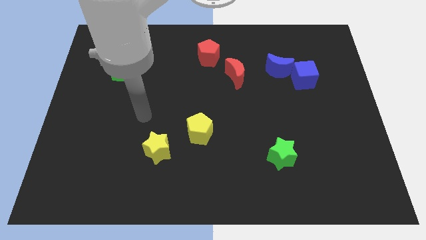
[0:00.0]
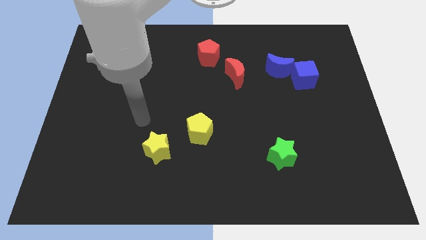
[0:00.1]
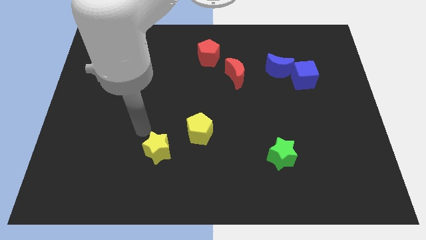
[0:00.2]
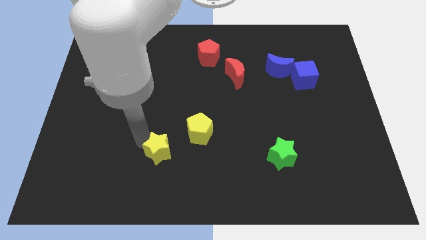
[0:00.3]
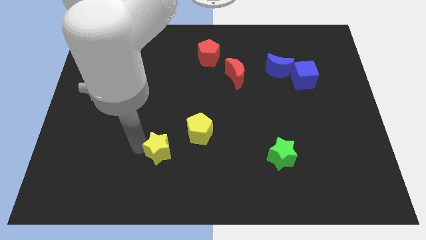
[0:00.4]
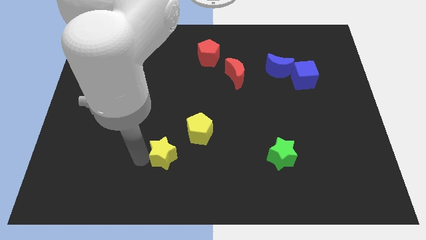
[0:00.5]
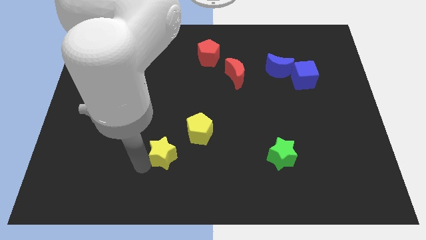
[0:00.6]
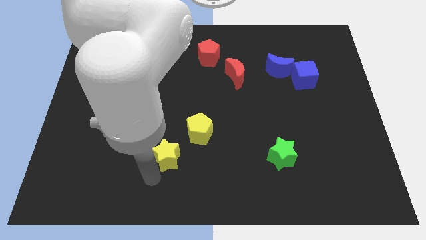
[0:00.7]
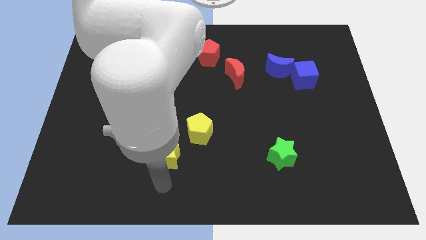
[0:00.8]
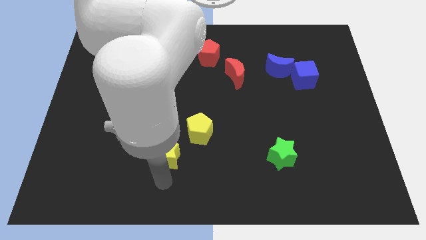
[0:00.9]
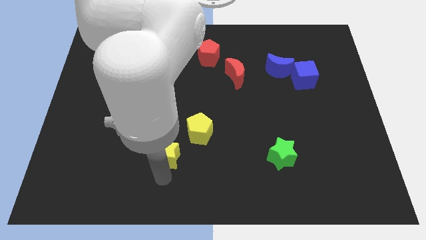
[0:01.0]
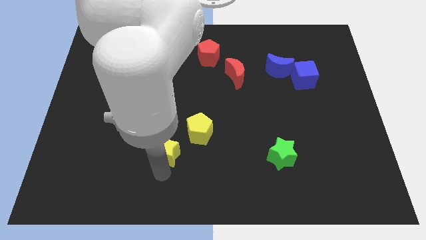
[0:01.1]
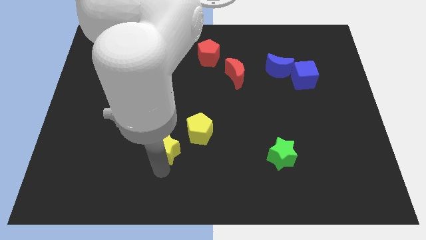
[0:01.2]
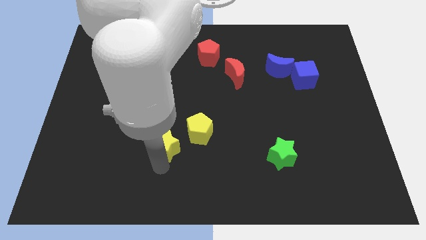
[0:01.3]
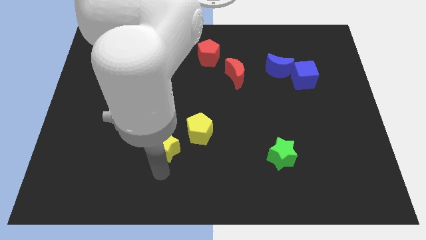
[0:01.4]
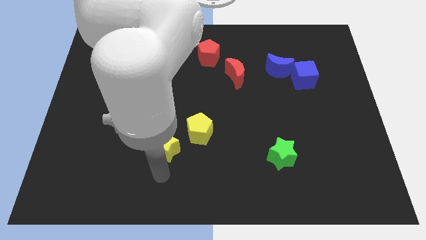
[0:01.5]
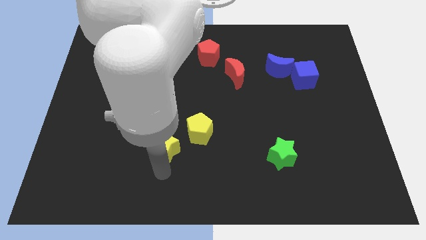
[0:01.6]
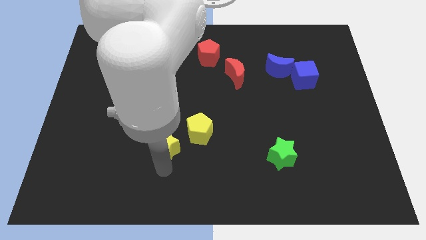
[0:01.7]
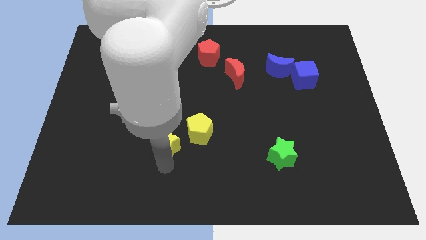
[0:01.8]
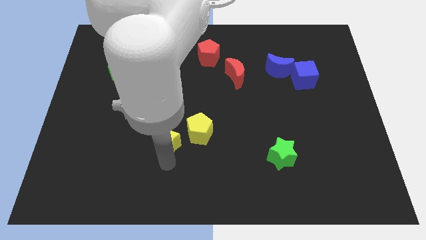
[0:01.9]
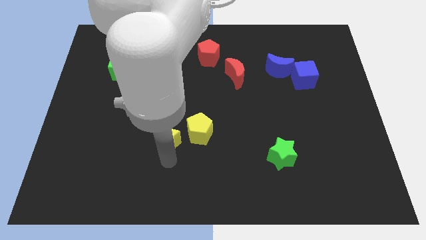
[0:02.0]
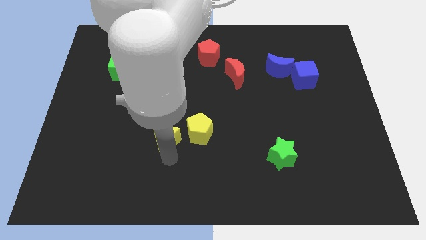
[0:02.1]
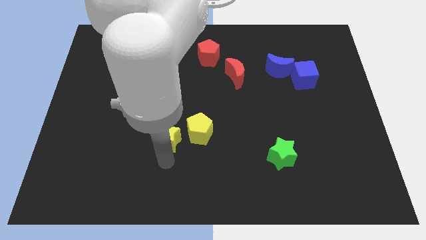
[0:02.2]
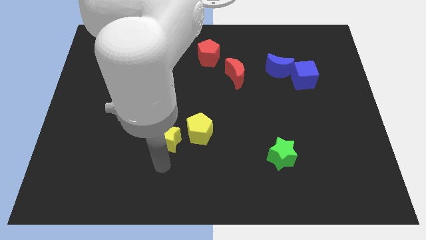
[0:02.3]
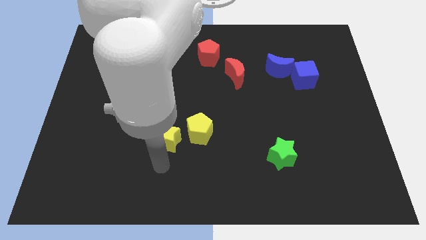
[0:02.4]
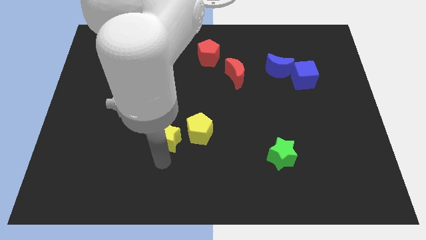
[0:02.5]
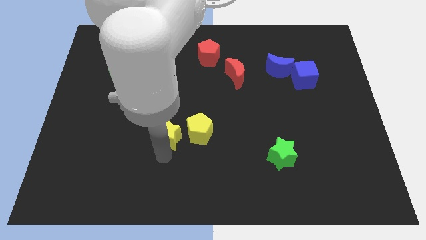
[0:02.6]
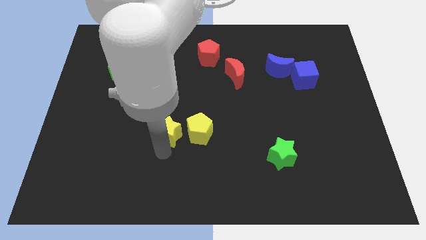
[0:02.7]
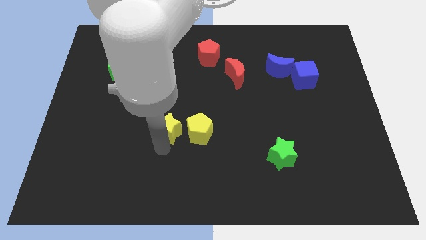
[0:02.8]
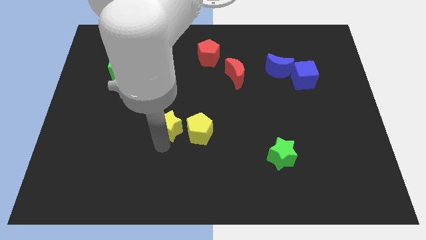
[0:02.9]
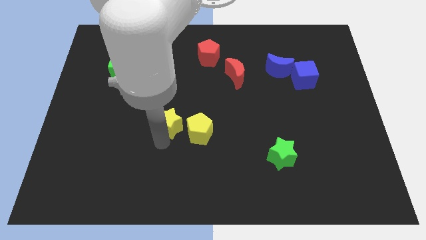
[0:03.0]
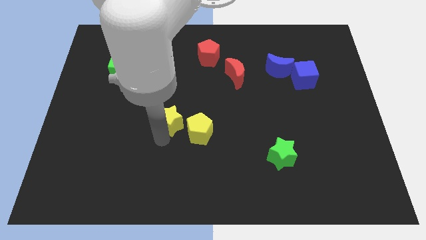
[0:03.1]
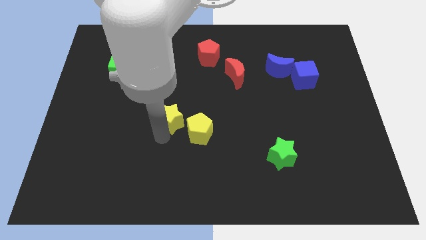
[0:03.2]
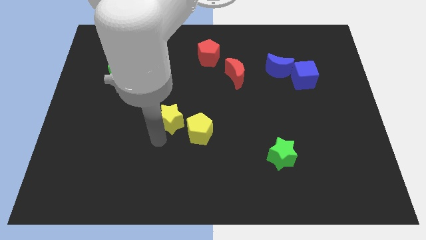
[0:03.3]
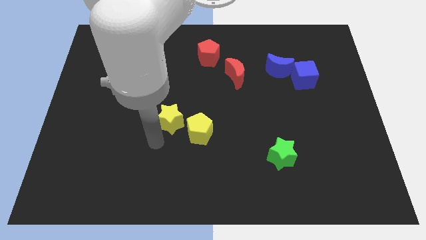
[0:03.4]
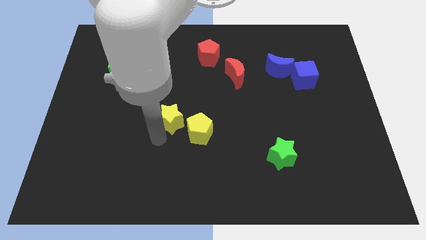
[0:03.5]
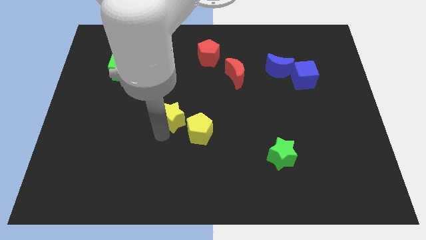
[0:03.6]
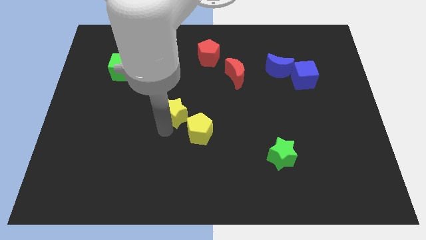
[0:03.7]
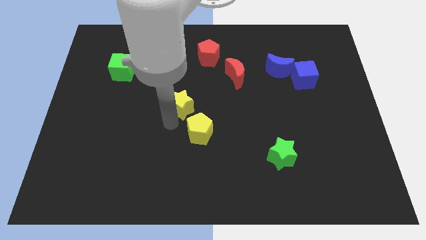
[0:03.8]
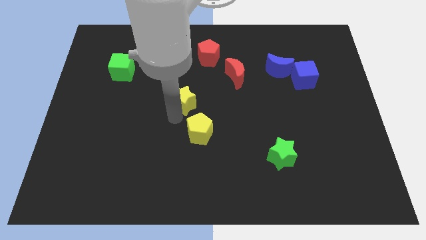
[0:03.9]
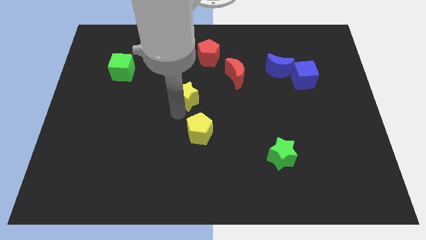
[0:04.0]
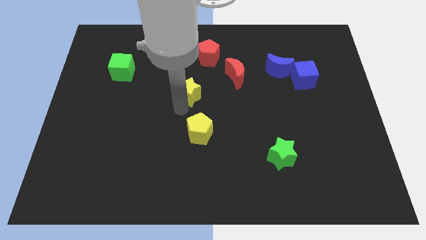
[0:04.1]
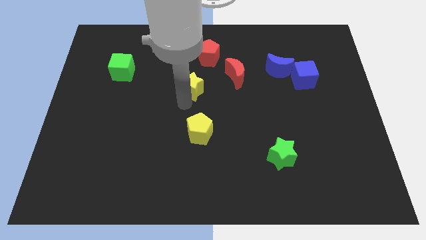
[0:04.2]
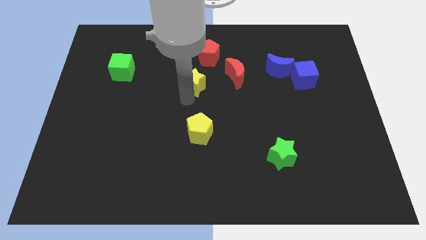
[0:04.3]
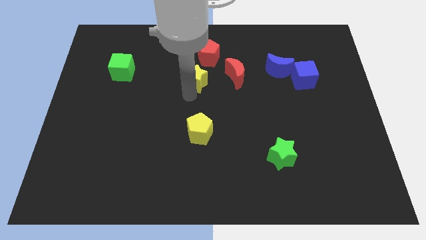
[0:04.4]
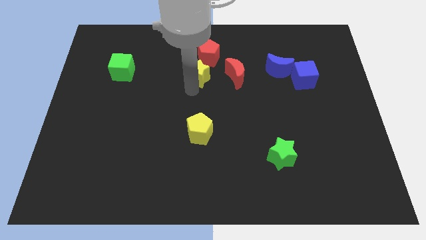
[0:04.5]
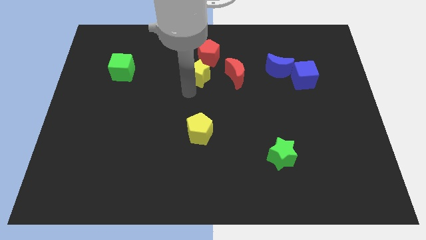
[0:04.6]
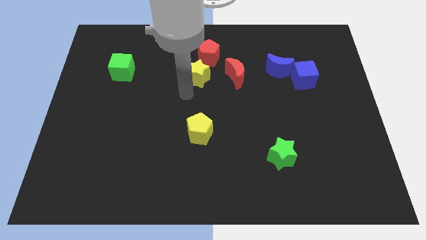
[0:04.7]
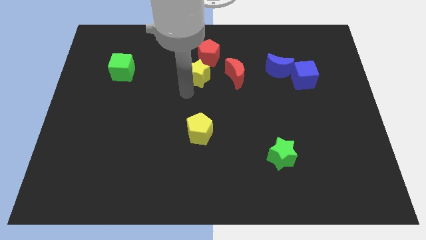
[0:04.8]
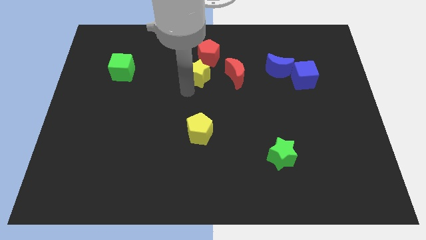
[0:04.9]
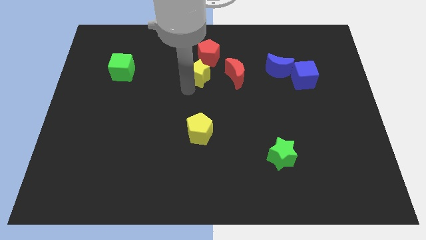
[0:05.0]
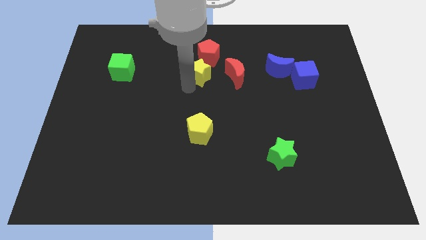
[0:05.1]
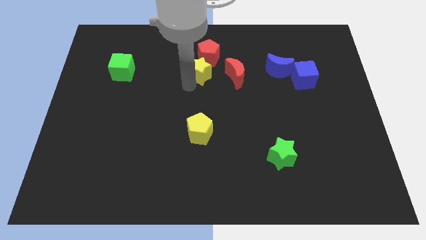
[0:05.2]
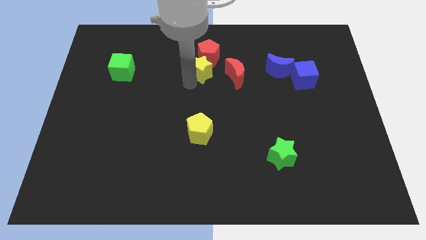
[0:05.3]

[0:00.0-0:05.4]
push the yellow star next to the red pentagon

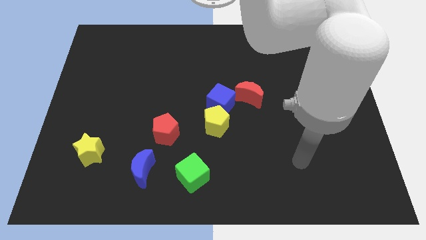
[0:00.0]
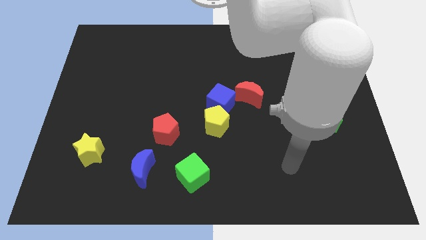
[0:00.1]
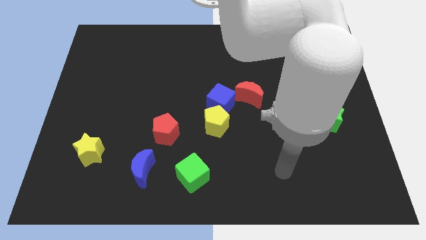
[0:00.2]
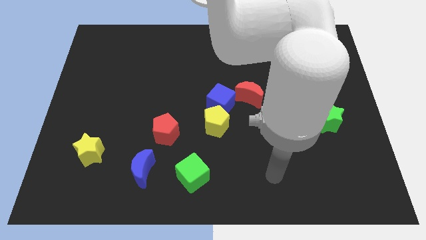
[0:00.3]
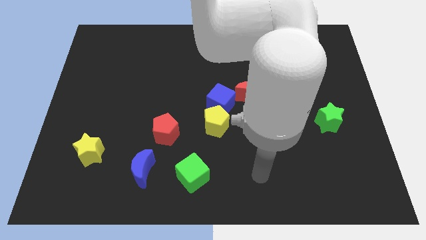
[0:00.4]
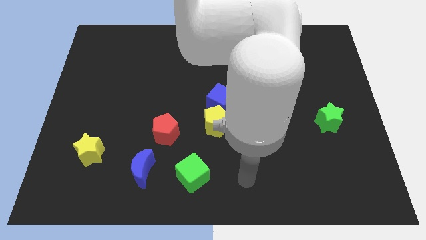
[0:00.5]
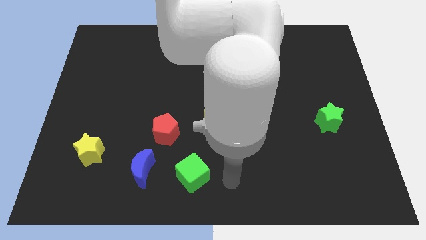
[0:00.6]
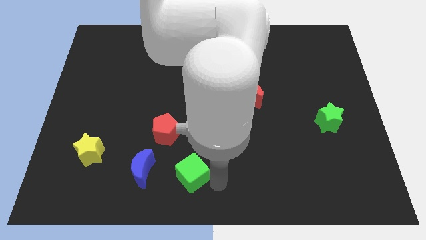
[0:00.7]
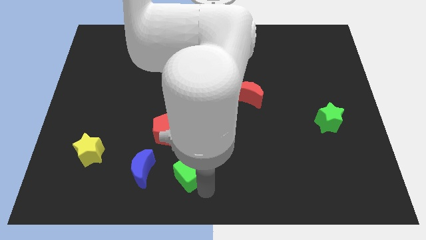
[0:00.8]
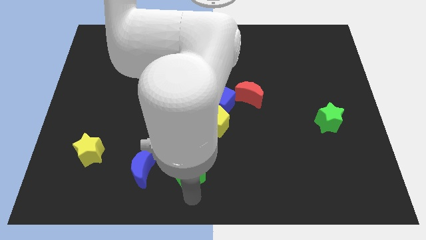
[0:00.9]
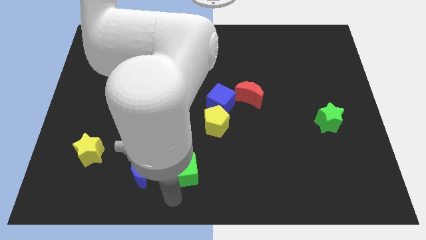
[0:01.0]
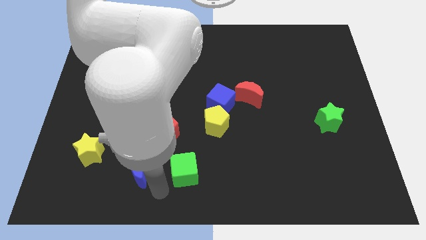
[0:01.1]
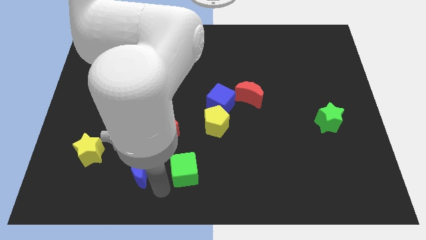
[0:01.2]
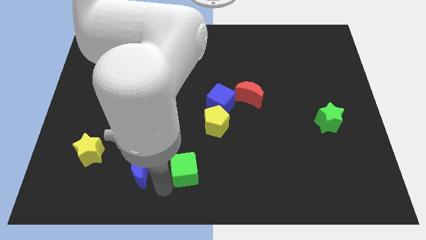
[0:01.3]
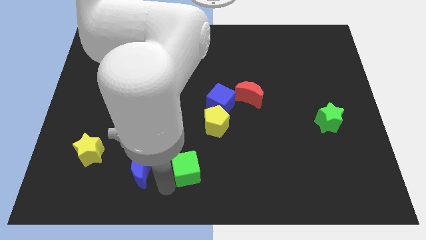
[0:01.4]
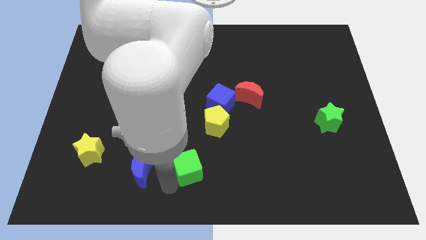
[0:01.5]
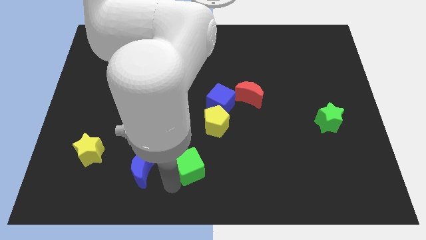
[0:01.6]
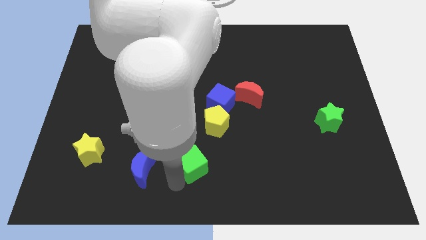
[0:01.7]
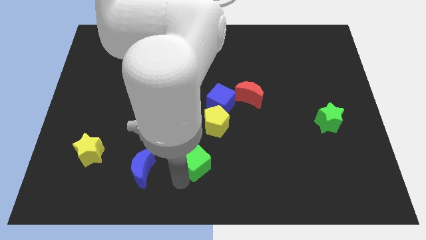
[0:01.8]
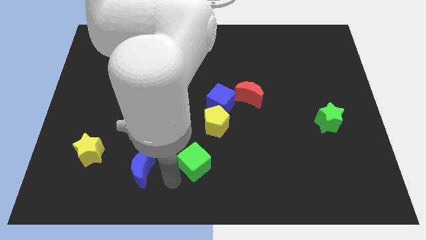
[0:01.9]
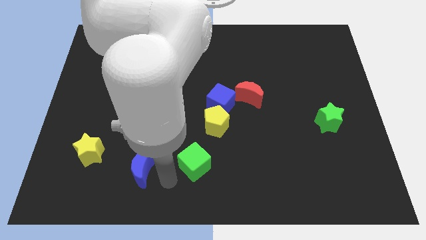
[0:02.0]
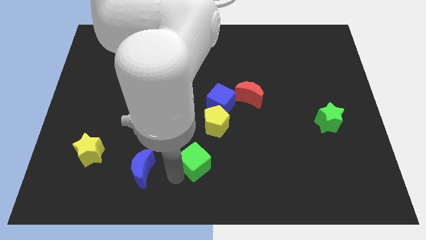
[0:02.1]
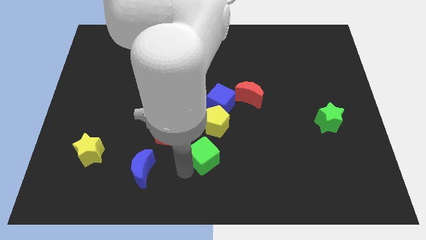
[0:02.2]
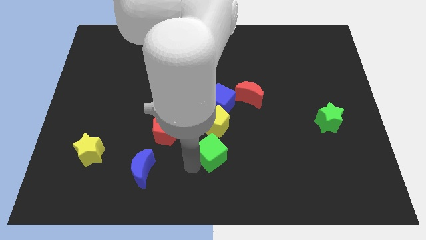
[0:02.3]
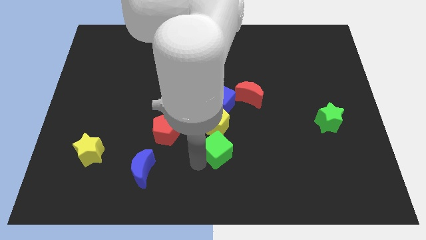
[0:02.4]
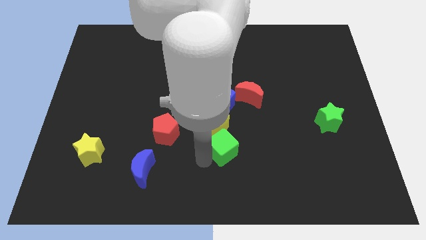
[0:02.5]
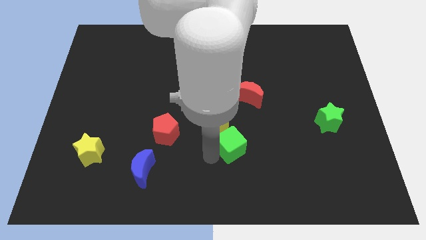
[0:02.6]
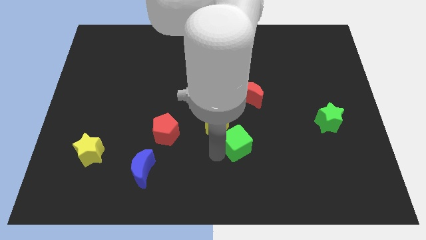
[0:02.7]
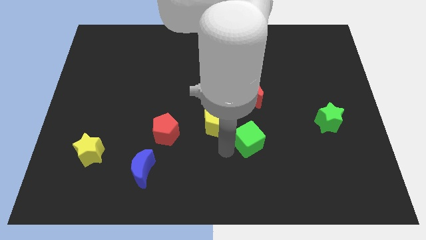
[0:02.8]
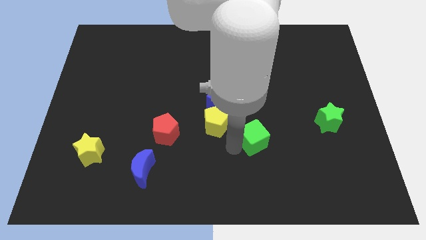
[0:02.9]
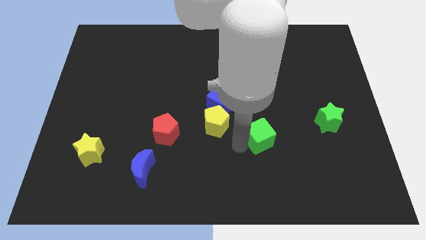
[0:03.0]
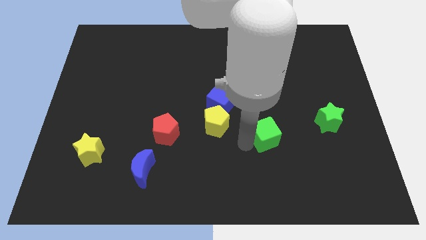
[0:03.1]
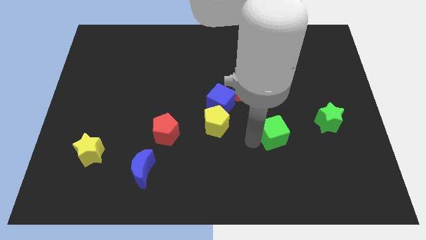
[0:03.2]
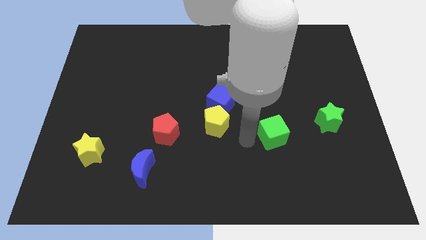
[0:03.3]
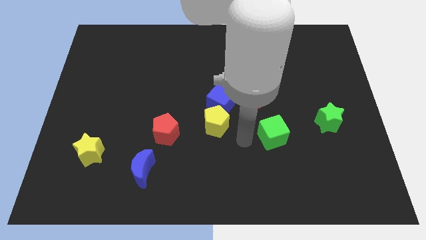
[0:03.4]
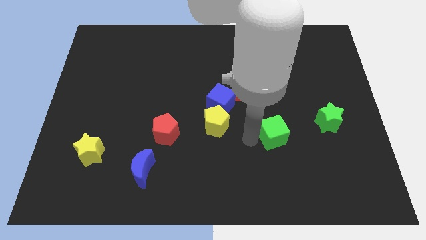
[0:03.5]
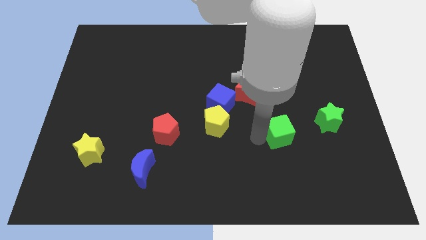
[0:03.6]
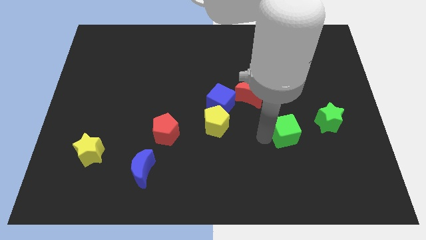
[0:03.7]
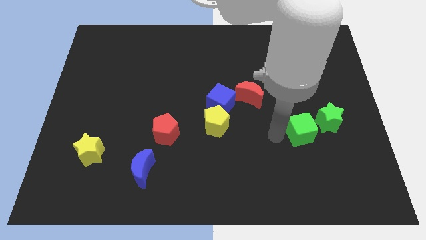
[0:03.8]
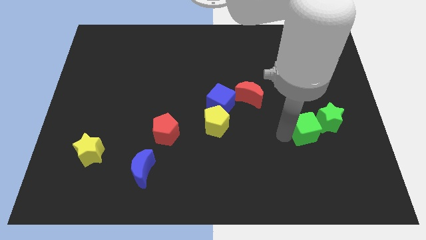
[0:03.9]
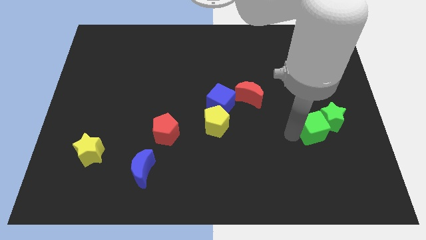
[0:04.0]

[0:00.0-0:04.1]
move the green cube towards the green star
